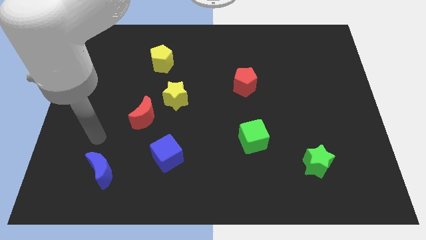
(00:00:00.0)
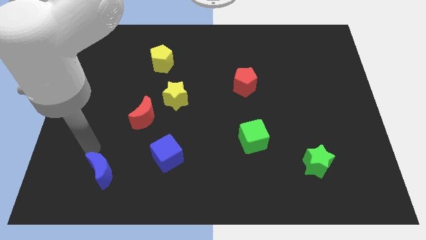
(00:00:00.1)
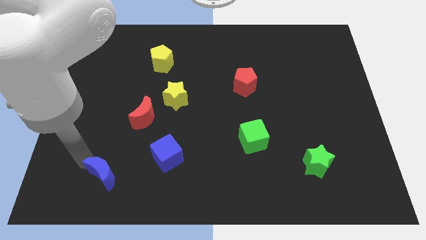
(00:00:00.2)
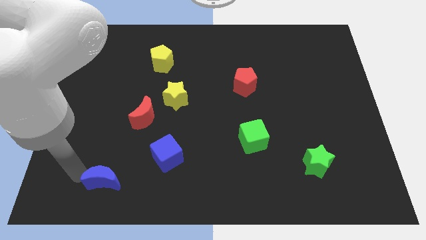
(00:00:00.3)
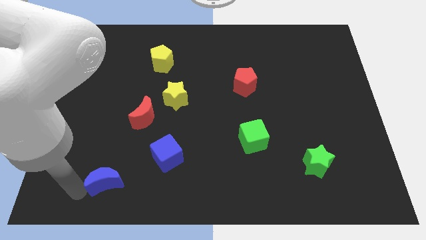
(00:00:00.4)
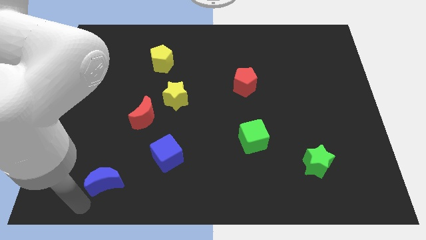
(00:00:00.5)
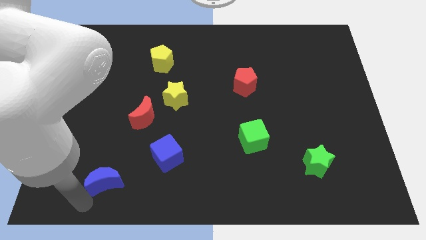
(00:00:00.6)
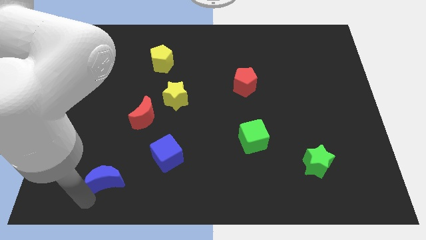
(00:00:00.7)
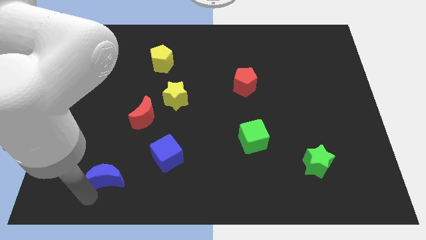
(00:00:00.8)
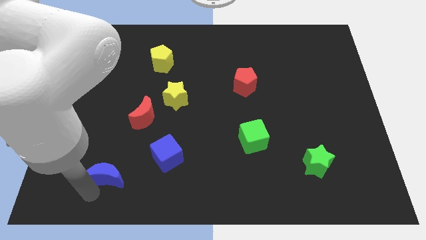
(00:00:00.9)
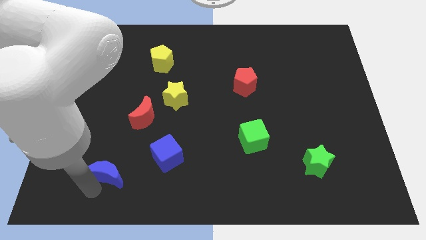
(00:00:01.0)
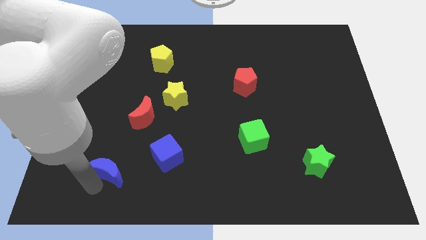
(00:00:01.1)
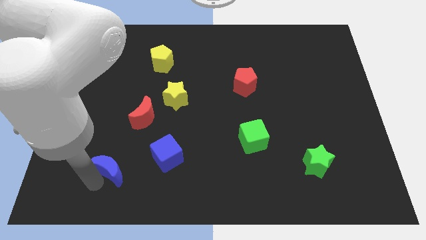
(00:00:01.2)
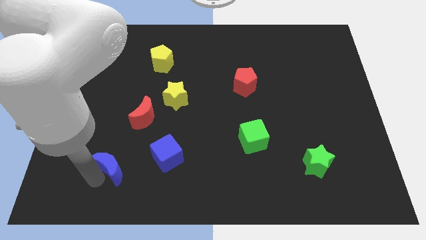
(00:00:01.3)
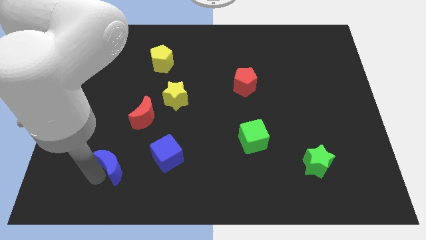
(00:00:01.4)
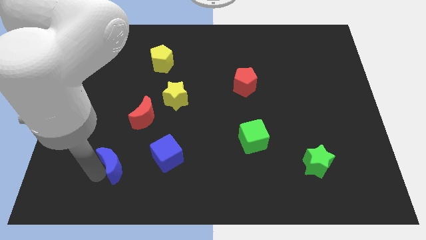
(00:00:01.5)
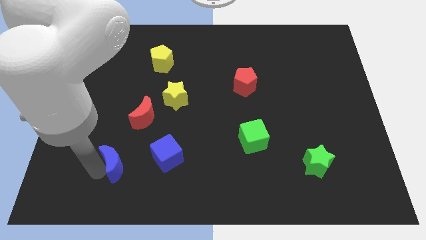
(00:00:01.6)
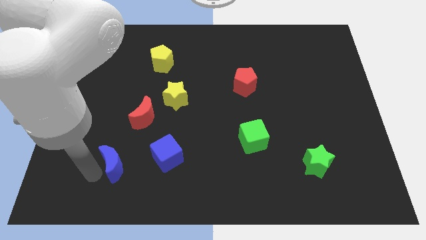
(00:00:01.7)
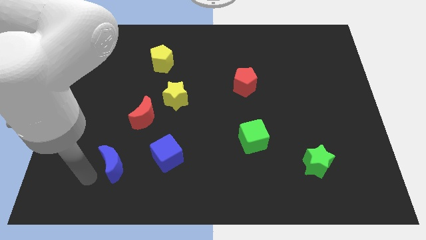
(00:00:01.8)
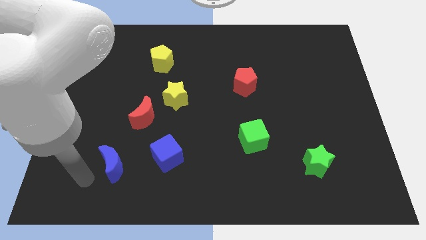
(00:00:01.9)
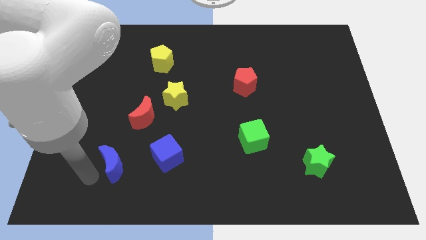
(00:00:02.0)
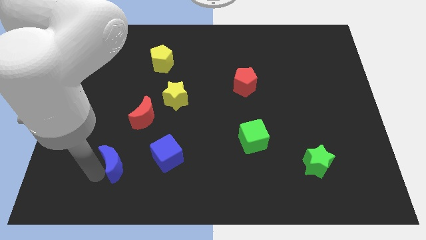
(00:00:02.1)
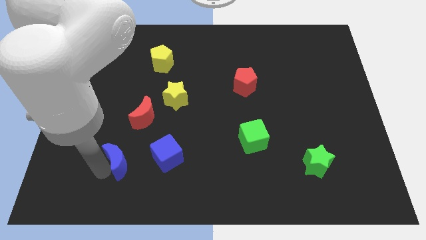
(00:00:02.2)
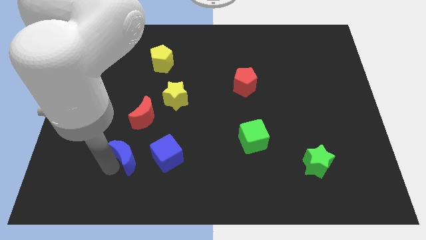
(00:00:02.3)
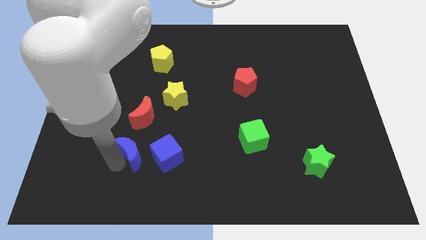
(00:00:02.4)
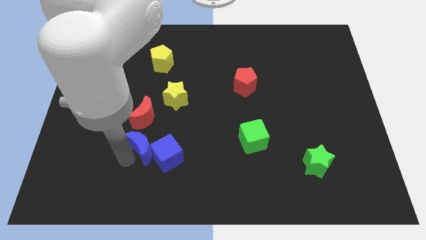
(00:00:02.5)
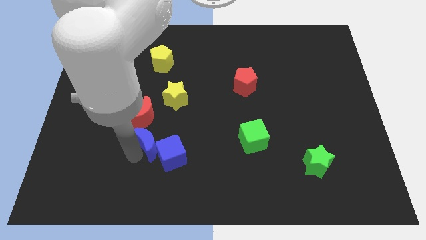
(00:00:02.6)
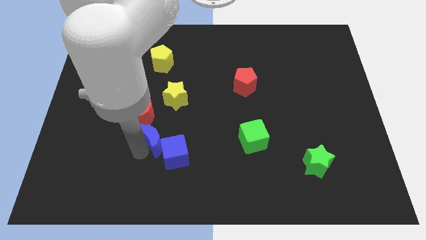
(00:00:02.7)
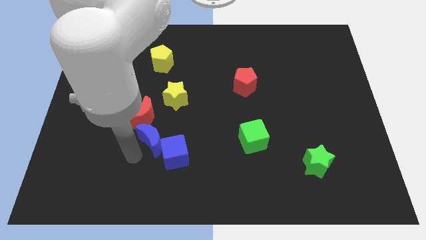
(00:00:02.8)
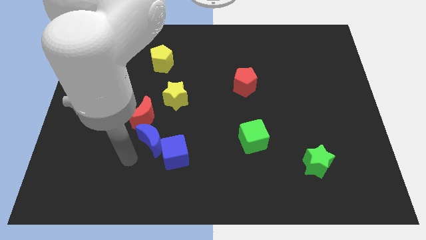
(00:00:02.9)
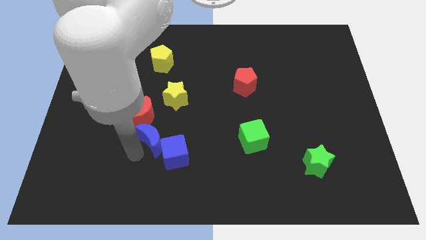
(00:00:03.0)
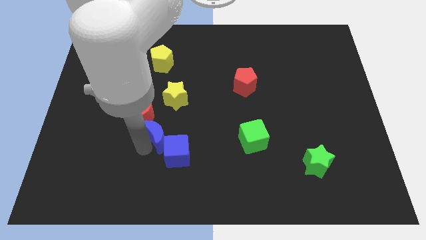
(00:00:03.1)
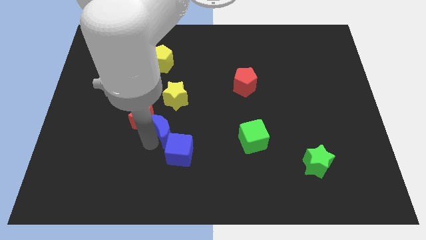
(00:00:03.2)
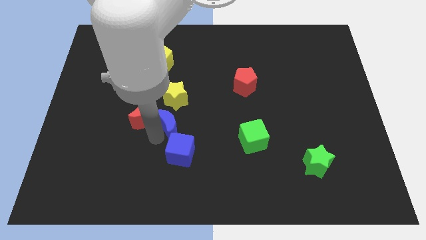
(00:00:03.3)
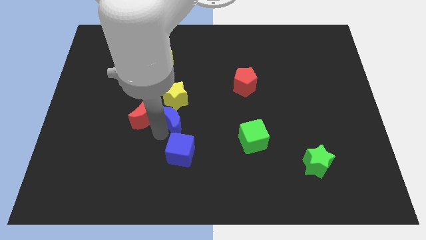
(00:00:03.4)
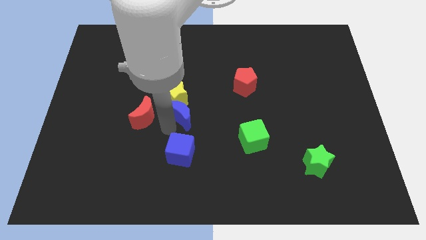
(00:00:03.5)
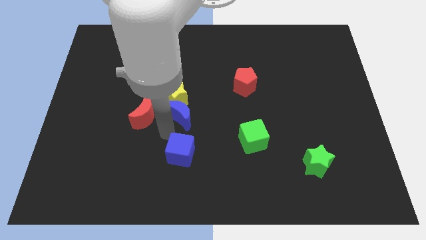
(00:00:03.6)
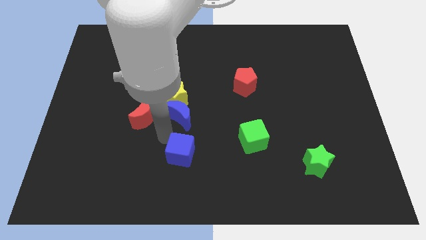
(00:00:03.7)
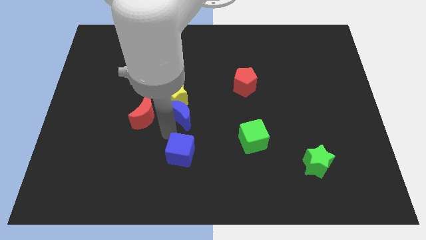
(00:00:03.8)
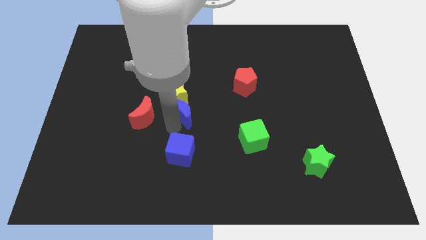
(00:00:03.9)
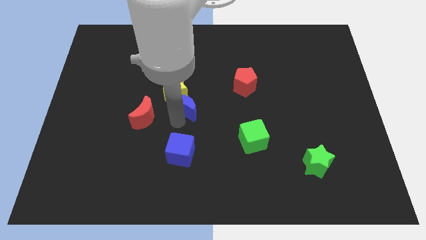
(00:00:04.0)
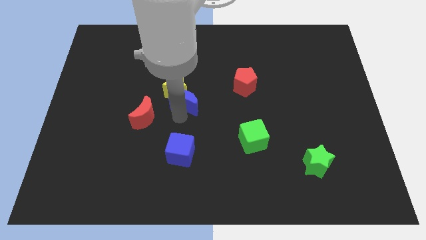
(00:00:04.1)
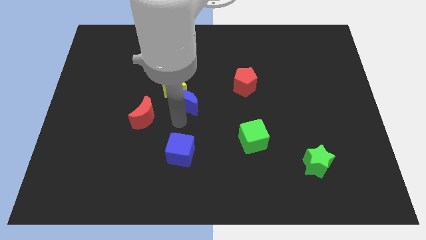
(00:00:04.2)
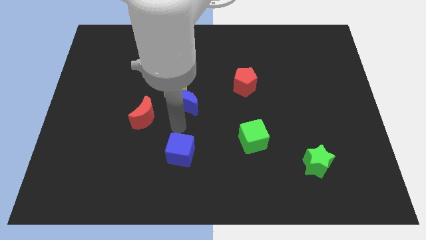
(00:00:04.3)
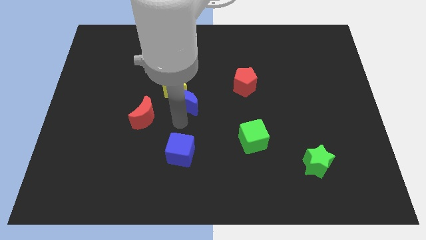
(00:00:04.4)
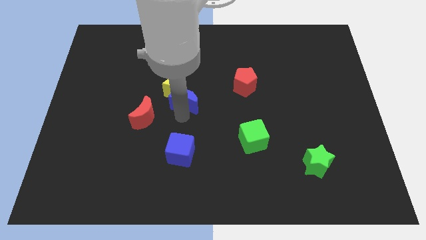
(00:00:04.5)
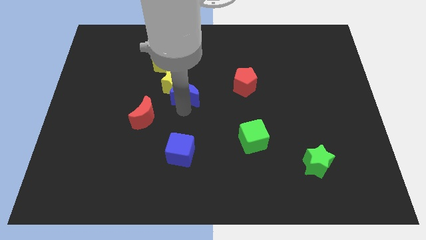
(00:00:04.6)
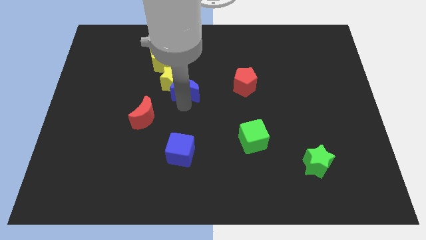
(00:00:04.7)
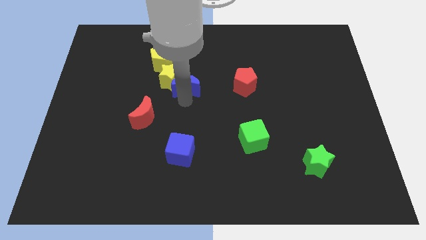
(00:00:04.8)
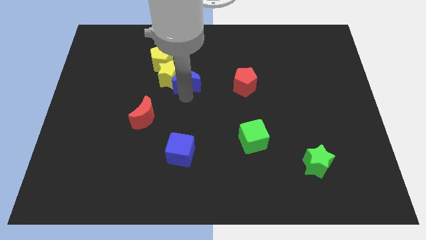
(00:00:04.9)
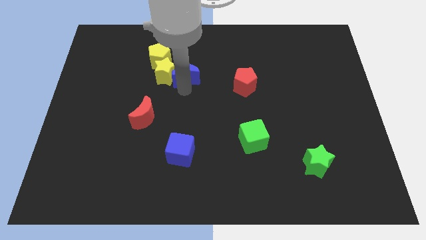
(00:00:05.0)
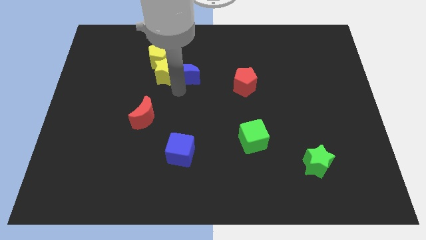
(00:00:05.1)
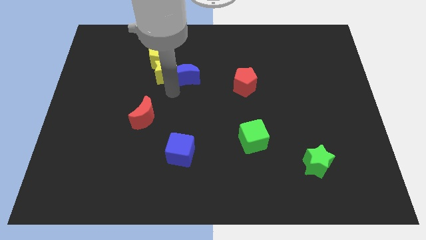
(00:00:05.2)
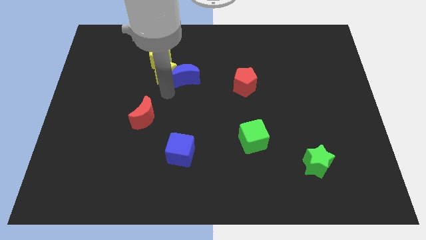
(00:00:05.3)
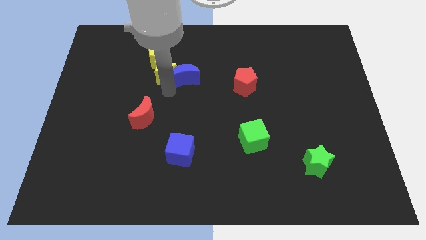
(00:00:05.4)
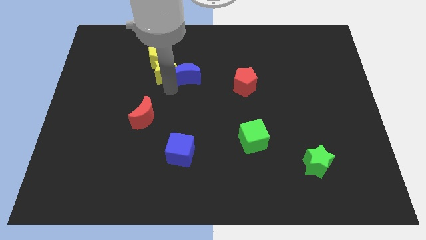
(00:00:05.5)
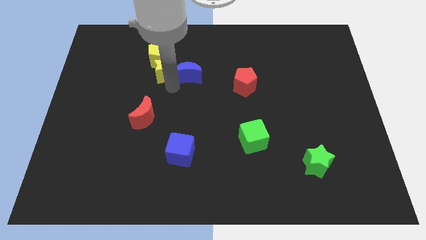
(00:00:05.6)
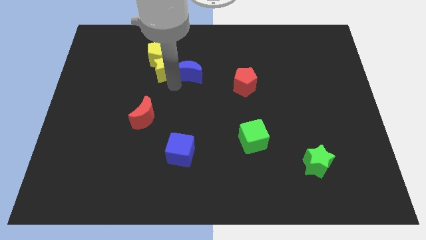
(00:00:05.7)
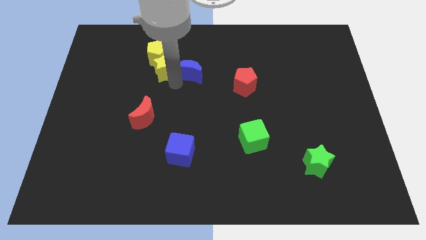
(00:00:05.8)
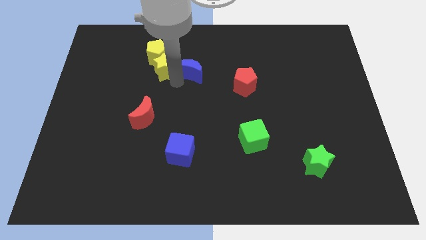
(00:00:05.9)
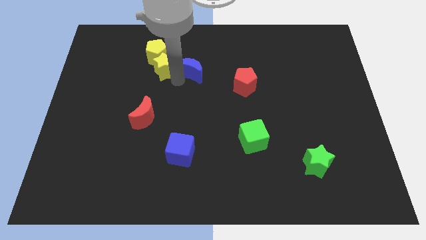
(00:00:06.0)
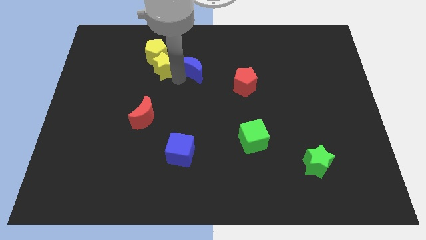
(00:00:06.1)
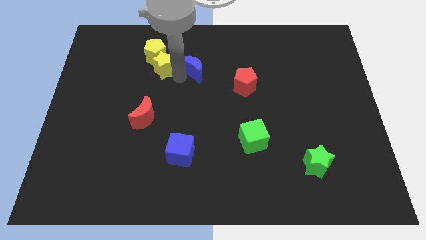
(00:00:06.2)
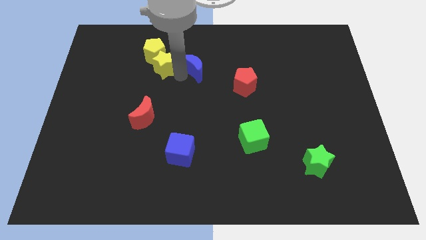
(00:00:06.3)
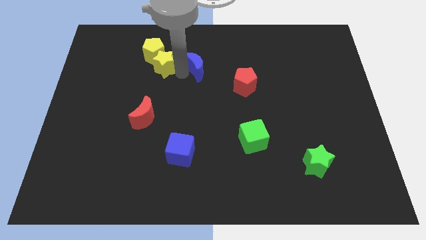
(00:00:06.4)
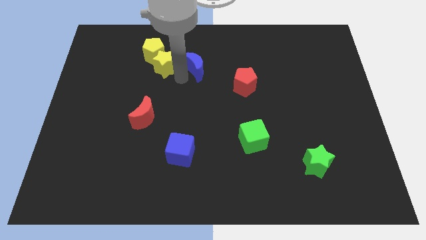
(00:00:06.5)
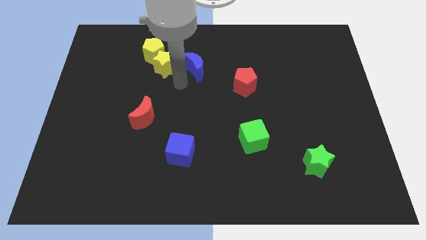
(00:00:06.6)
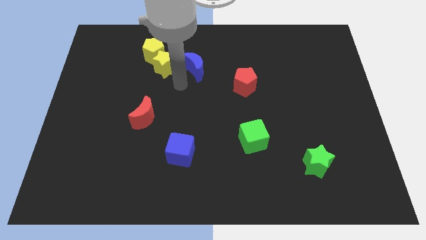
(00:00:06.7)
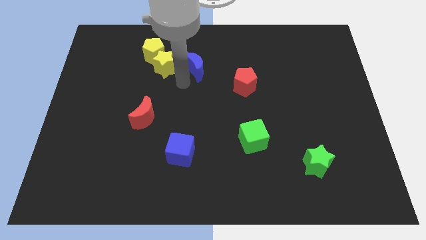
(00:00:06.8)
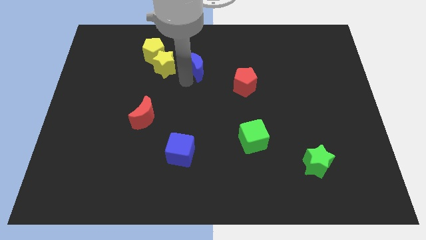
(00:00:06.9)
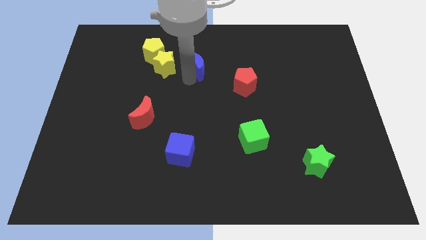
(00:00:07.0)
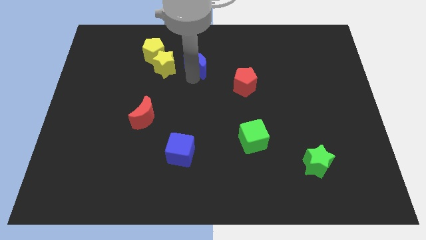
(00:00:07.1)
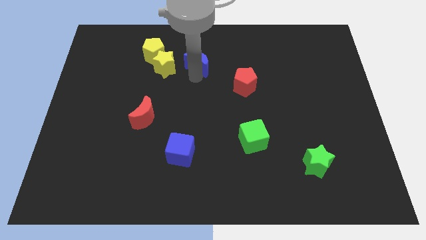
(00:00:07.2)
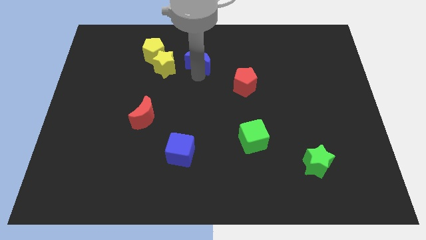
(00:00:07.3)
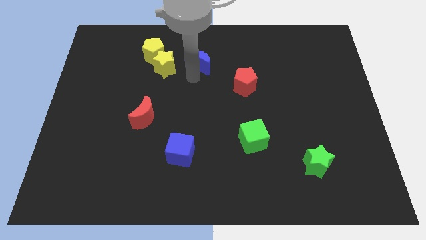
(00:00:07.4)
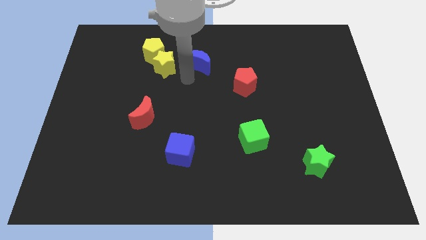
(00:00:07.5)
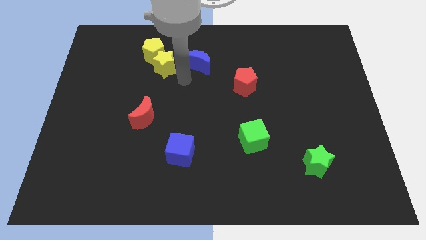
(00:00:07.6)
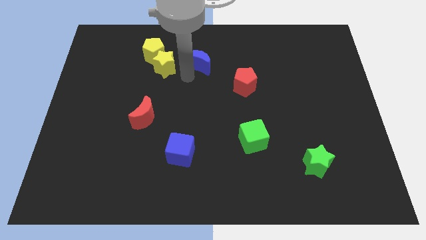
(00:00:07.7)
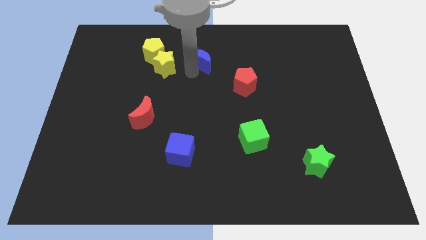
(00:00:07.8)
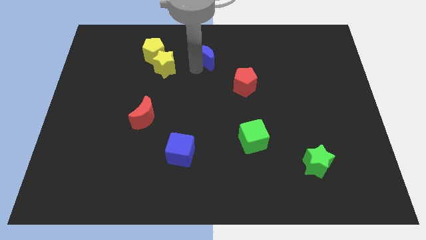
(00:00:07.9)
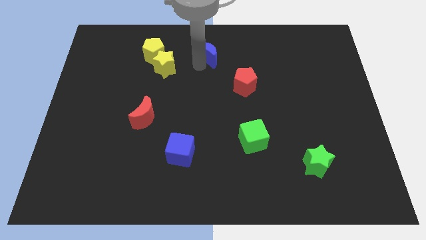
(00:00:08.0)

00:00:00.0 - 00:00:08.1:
push the blue moon to the towards your base
